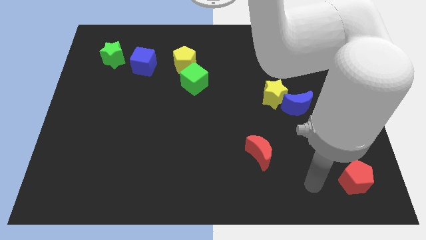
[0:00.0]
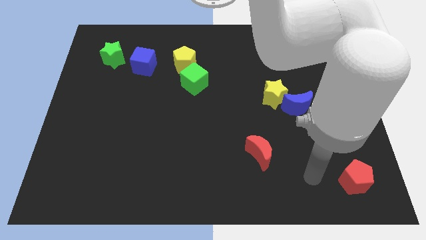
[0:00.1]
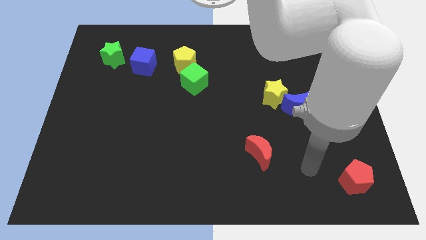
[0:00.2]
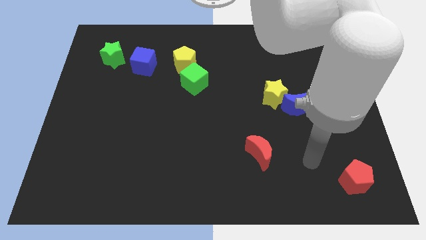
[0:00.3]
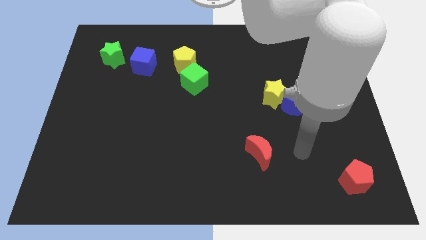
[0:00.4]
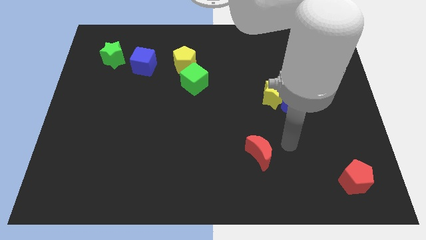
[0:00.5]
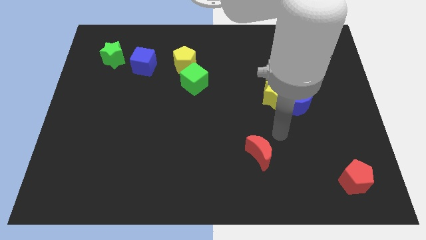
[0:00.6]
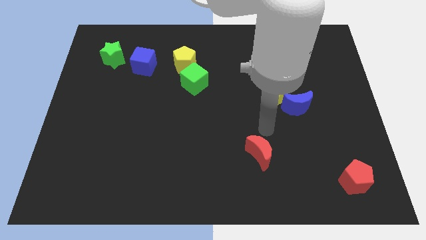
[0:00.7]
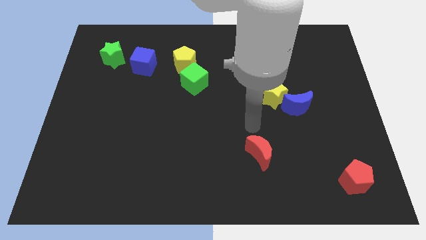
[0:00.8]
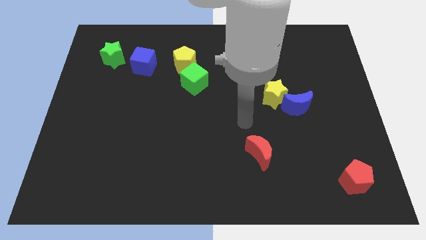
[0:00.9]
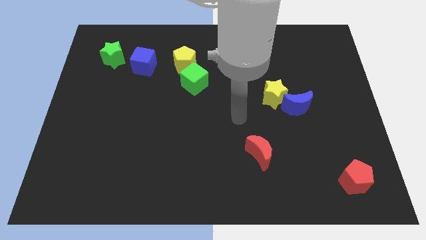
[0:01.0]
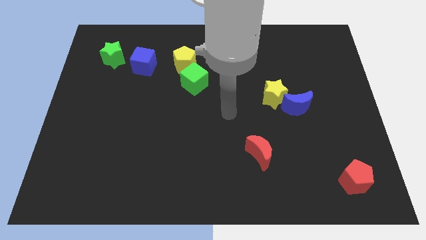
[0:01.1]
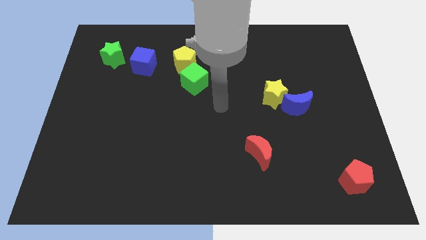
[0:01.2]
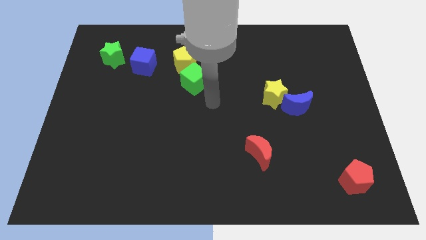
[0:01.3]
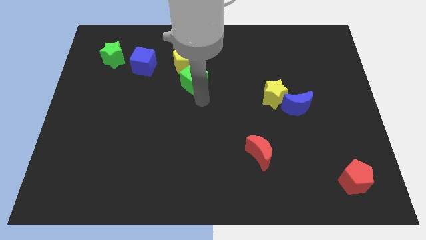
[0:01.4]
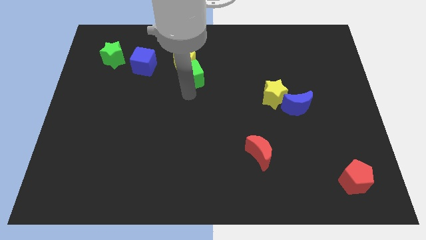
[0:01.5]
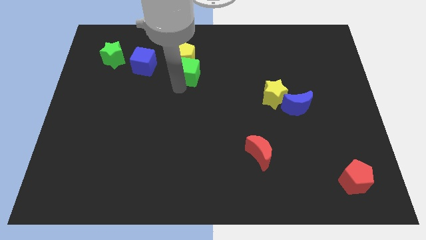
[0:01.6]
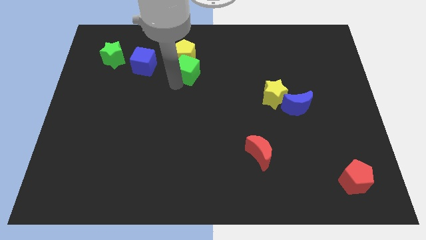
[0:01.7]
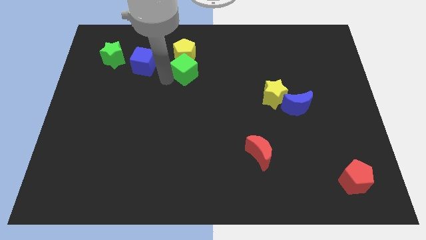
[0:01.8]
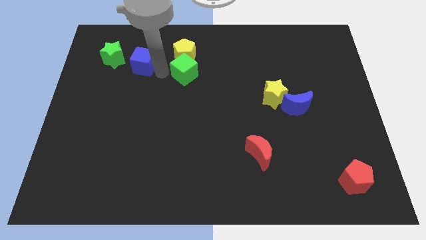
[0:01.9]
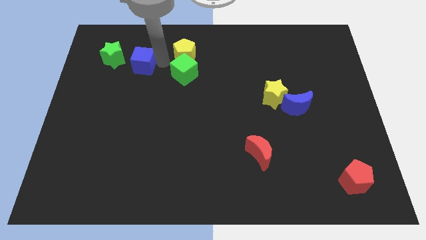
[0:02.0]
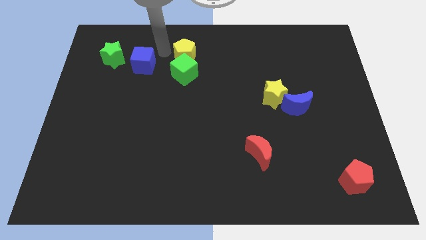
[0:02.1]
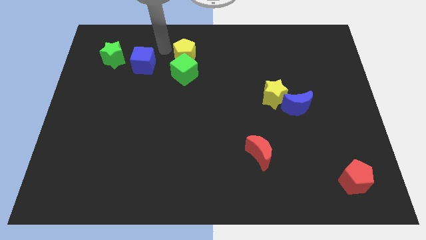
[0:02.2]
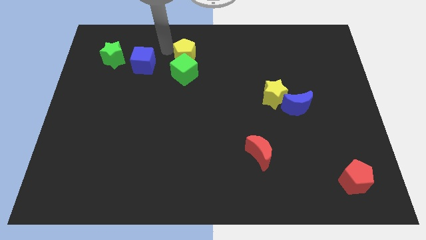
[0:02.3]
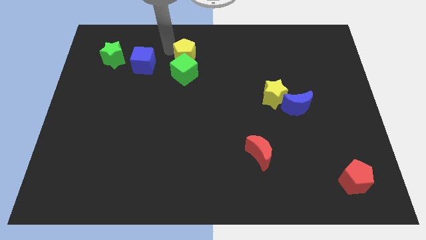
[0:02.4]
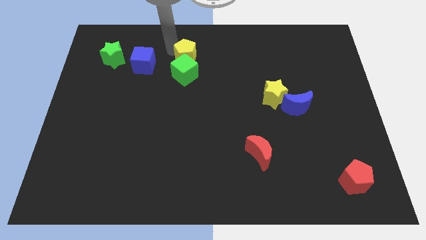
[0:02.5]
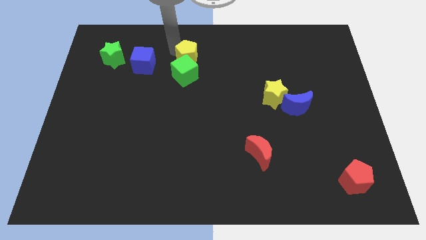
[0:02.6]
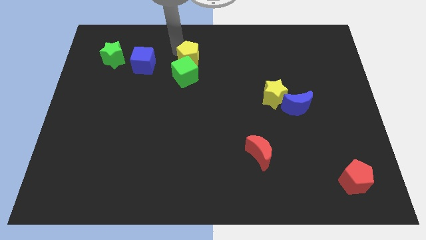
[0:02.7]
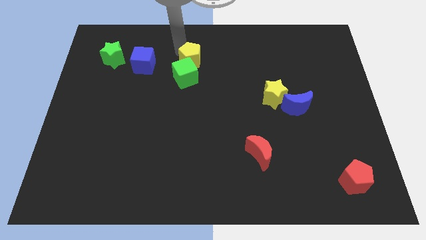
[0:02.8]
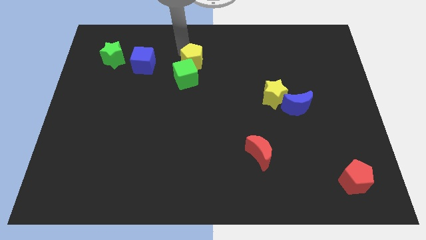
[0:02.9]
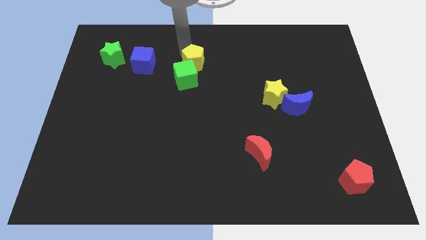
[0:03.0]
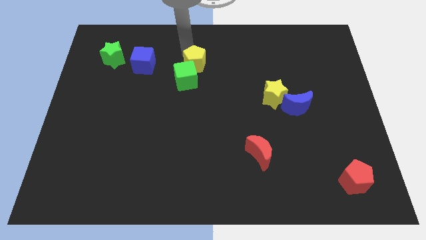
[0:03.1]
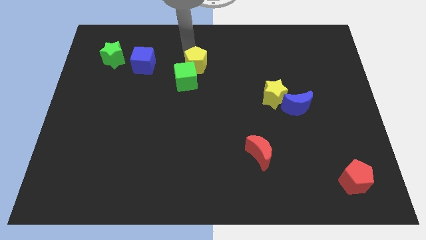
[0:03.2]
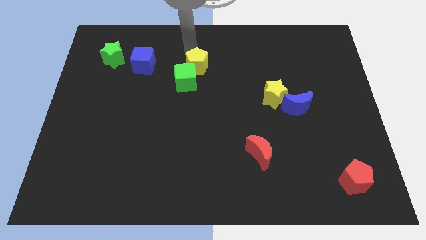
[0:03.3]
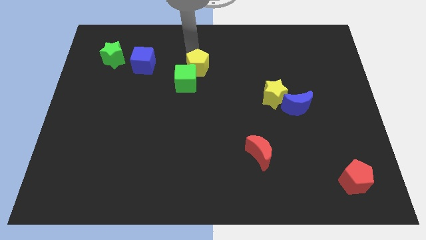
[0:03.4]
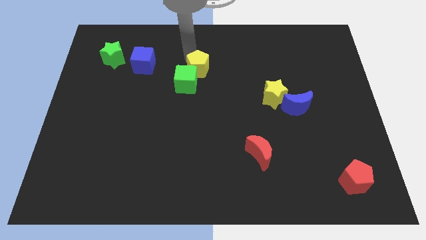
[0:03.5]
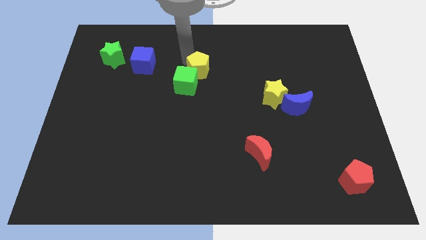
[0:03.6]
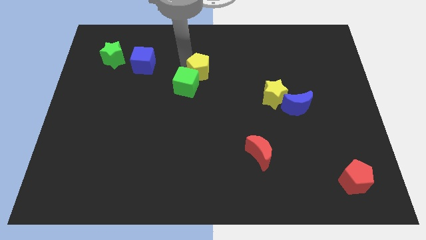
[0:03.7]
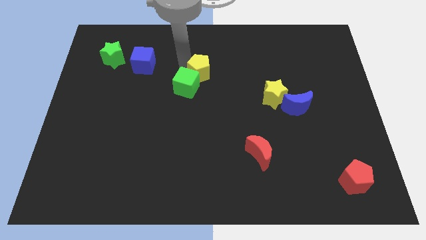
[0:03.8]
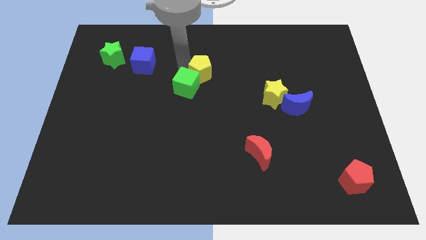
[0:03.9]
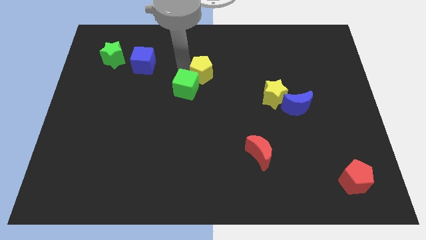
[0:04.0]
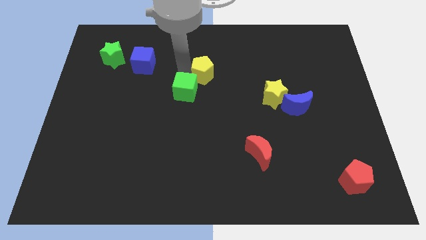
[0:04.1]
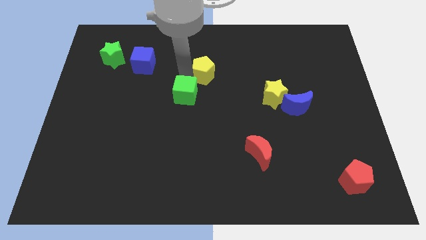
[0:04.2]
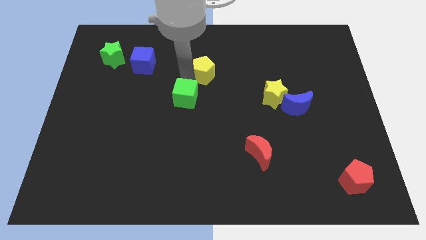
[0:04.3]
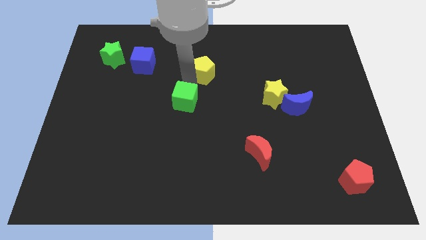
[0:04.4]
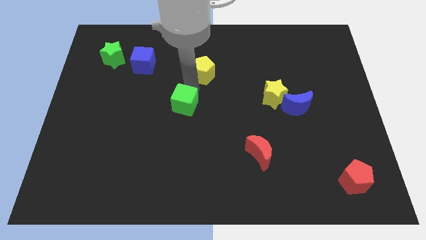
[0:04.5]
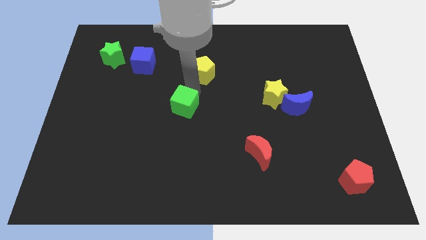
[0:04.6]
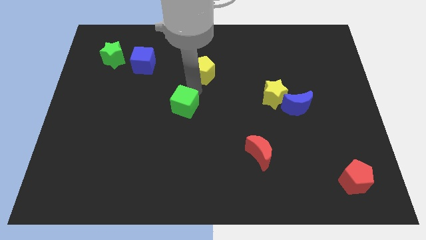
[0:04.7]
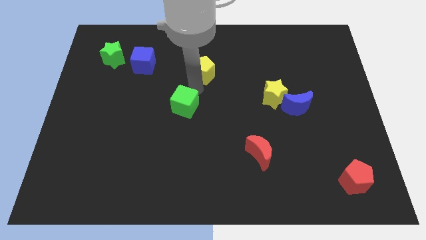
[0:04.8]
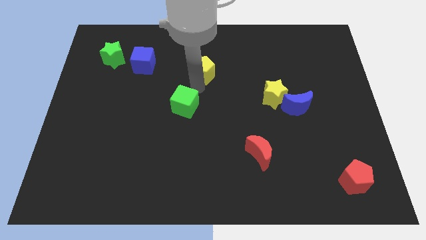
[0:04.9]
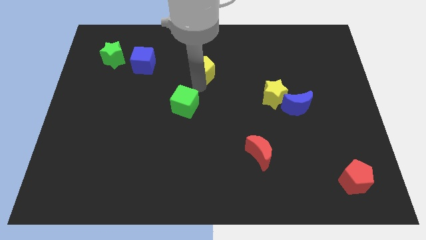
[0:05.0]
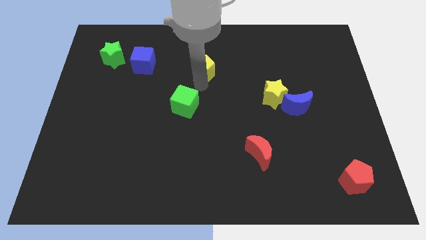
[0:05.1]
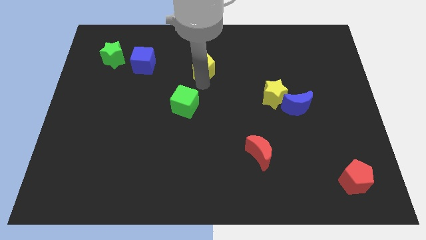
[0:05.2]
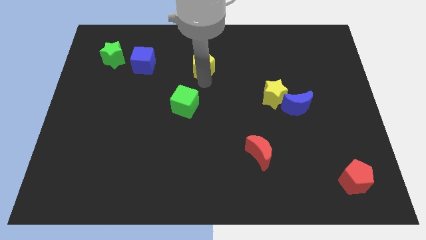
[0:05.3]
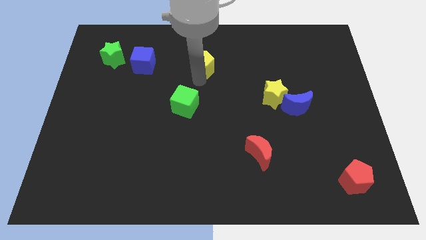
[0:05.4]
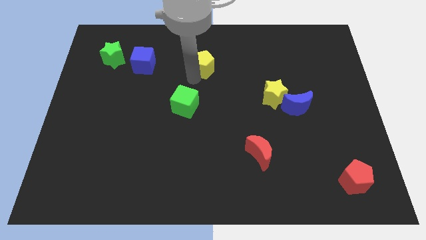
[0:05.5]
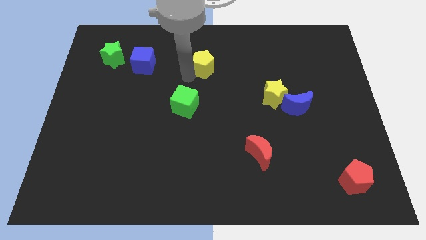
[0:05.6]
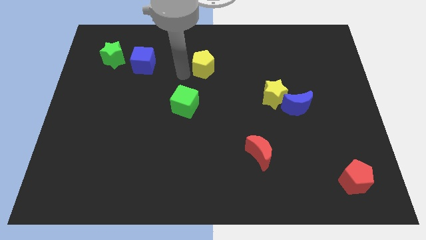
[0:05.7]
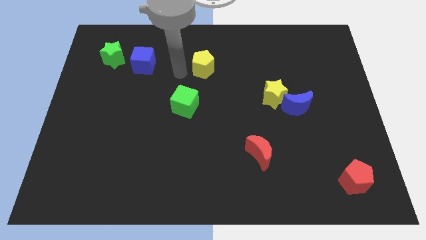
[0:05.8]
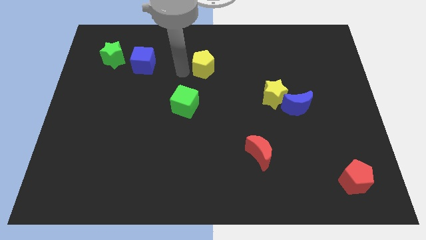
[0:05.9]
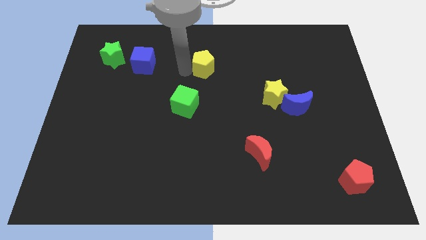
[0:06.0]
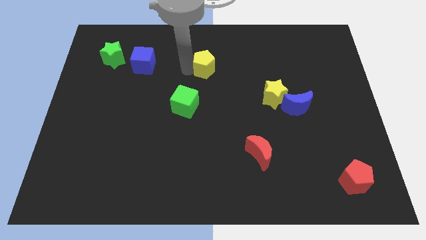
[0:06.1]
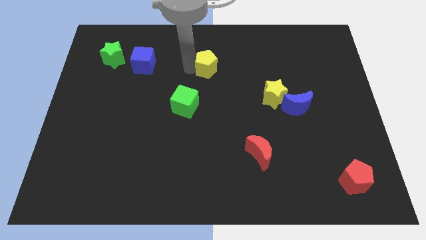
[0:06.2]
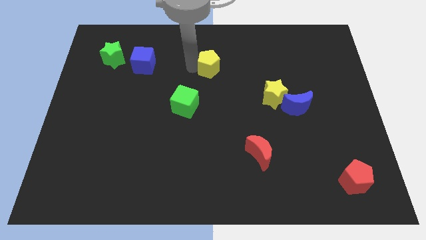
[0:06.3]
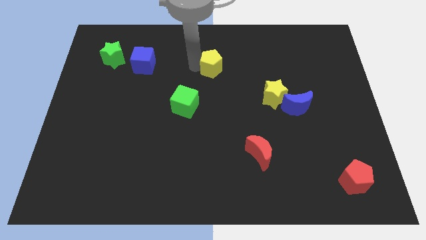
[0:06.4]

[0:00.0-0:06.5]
push the yellow pentagon right somewhat

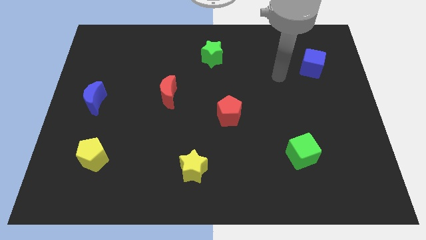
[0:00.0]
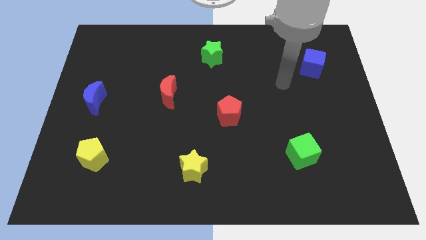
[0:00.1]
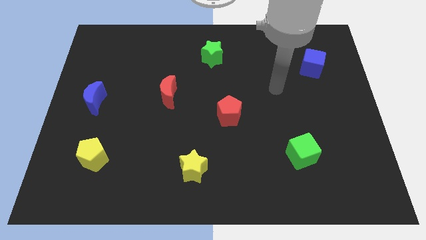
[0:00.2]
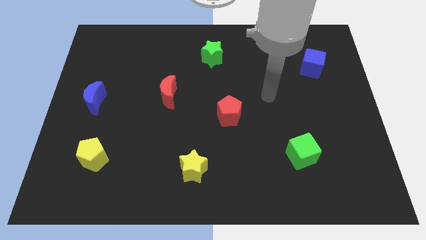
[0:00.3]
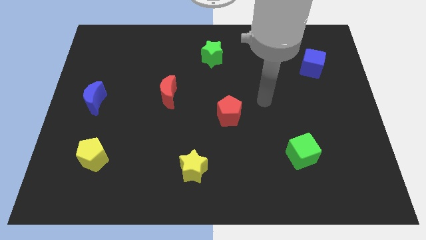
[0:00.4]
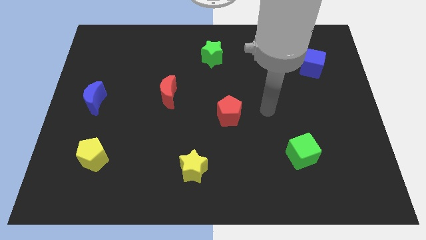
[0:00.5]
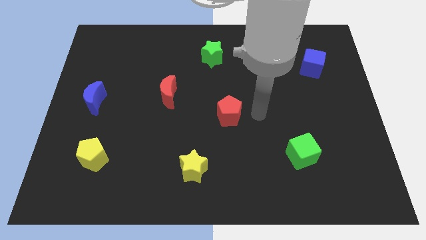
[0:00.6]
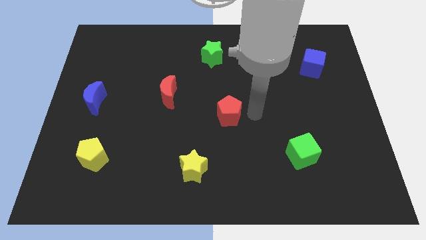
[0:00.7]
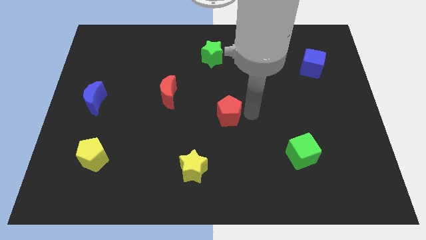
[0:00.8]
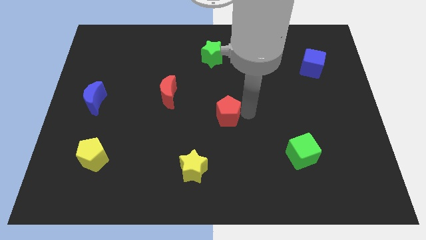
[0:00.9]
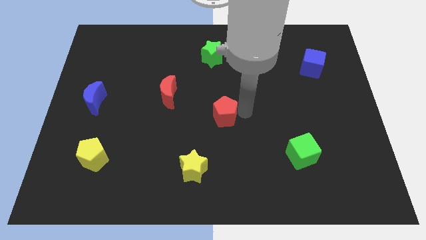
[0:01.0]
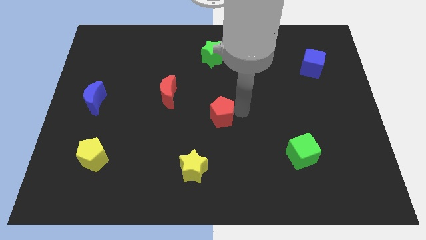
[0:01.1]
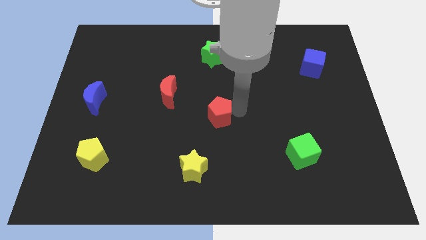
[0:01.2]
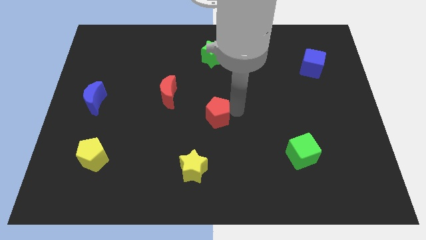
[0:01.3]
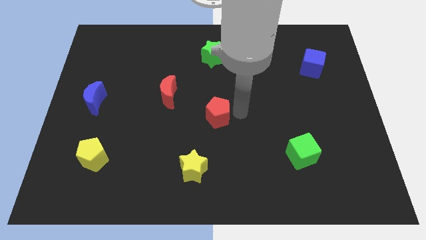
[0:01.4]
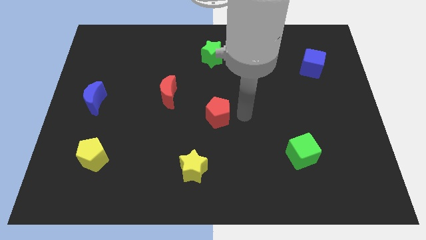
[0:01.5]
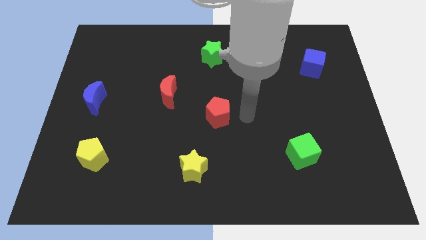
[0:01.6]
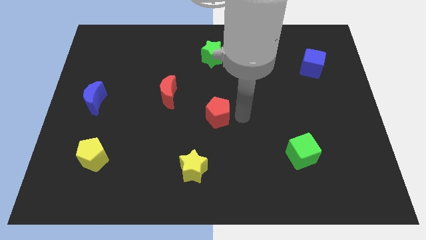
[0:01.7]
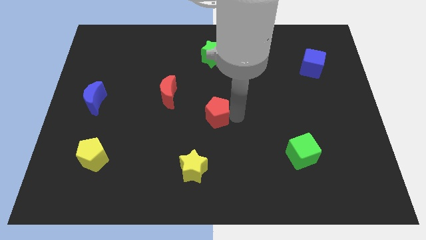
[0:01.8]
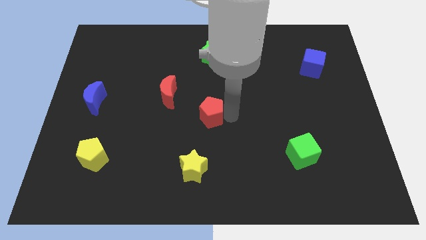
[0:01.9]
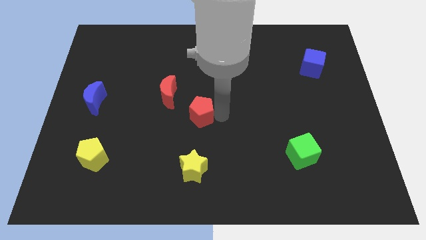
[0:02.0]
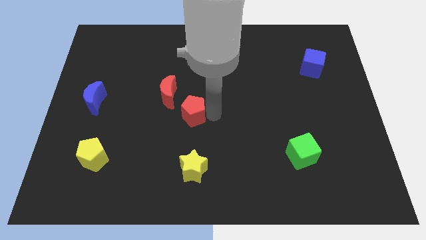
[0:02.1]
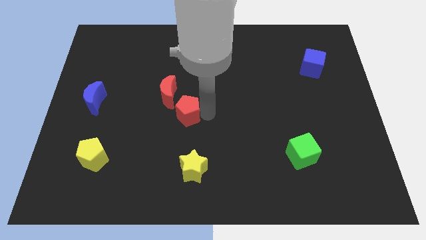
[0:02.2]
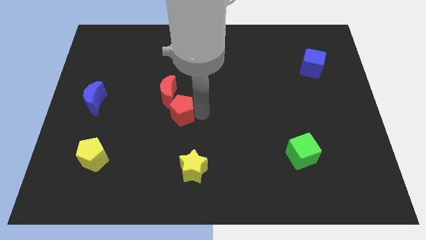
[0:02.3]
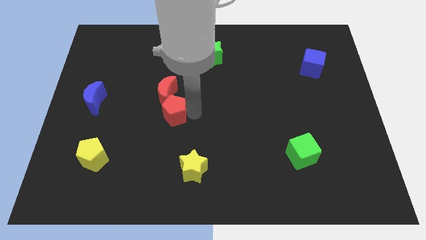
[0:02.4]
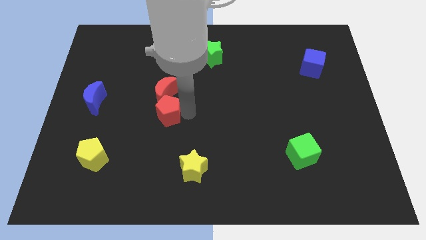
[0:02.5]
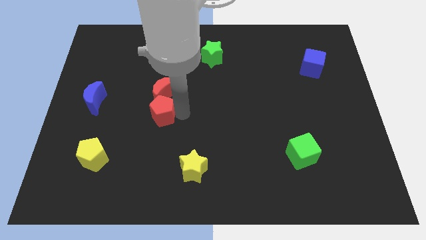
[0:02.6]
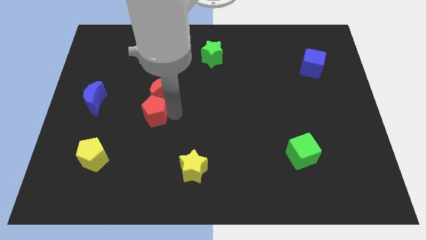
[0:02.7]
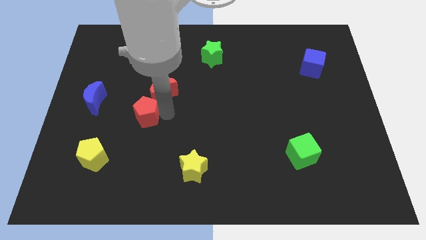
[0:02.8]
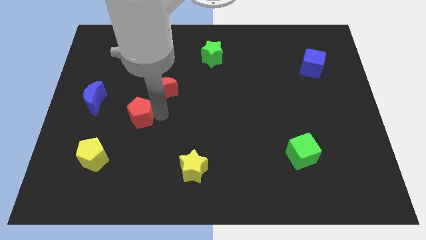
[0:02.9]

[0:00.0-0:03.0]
push the red pentagon left
